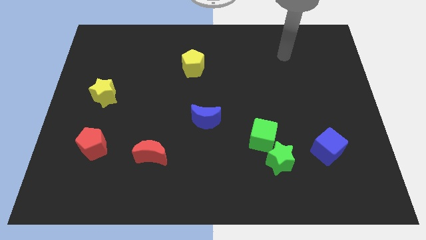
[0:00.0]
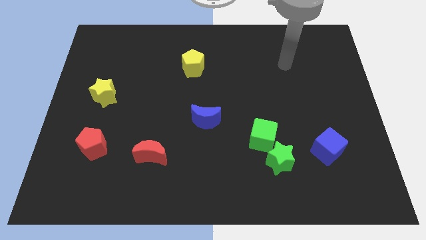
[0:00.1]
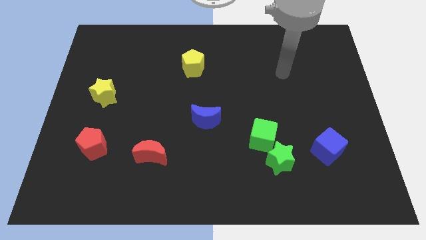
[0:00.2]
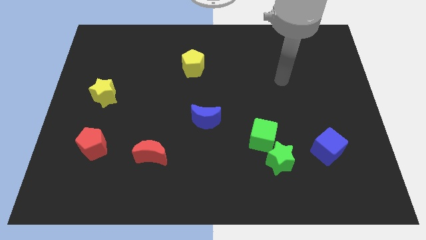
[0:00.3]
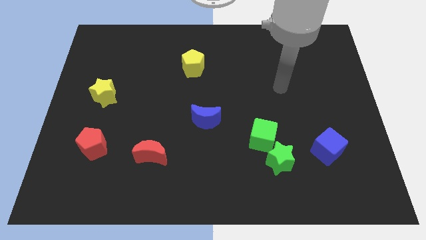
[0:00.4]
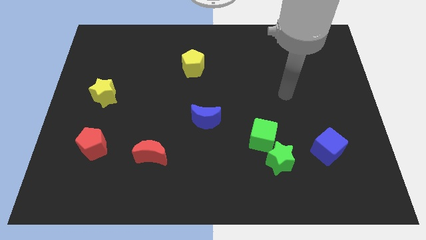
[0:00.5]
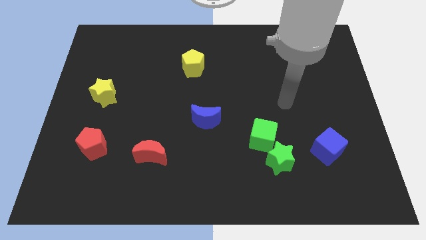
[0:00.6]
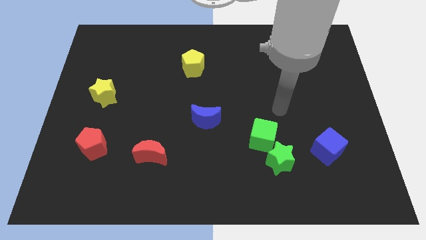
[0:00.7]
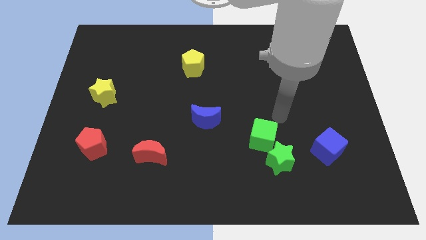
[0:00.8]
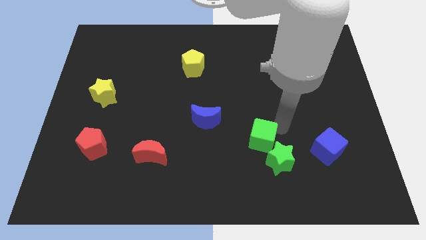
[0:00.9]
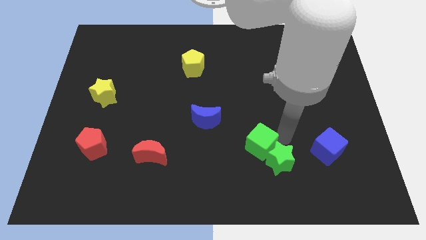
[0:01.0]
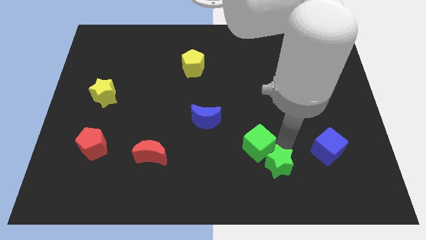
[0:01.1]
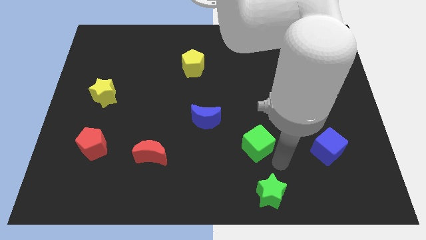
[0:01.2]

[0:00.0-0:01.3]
separate the green cube from the green star

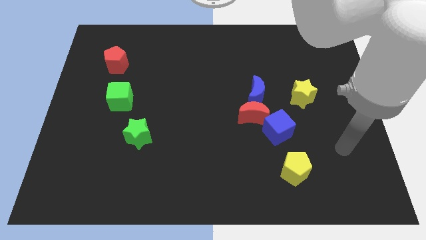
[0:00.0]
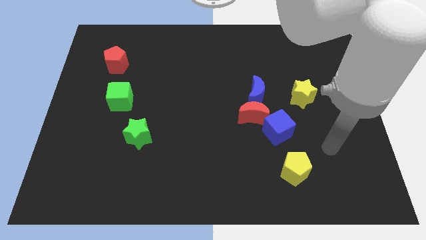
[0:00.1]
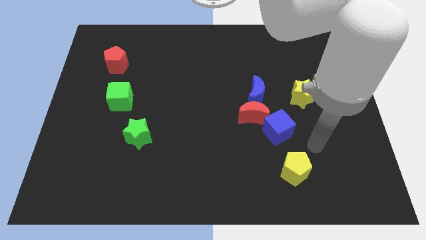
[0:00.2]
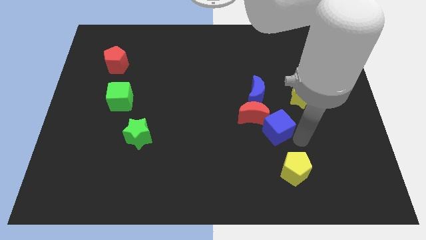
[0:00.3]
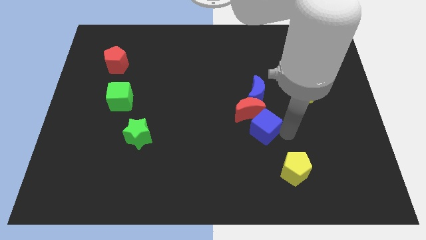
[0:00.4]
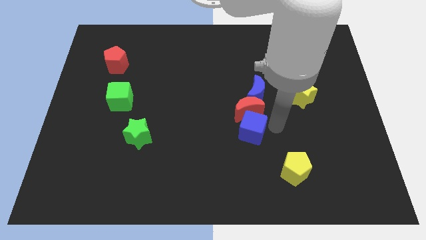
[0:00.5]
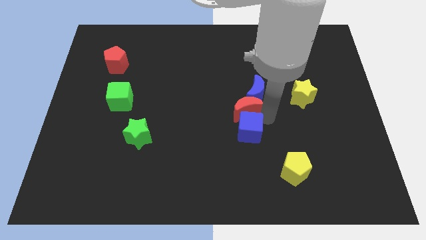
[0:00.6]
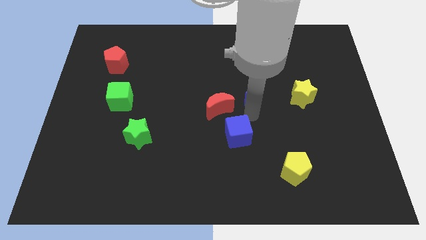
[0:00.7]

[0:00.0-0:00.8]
separate the blue moon from the red moon

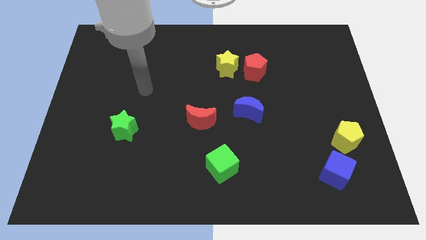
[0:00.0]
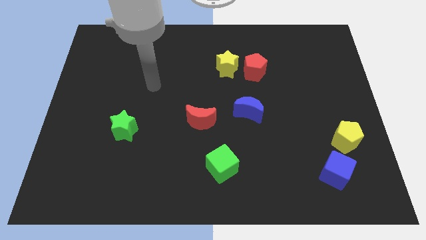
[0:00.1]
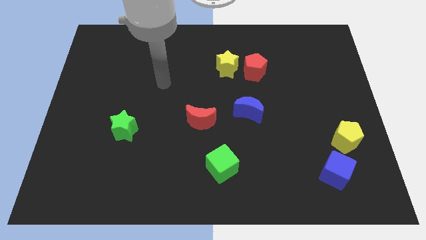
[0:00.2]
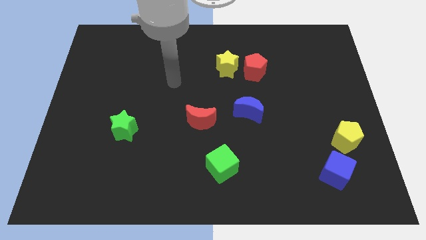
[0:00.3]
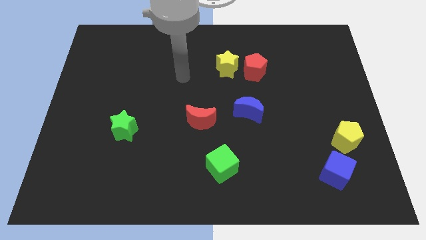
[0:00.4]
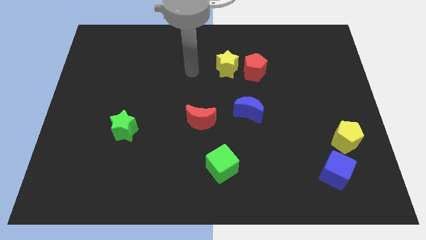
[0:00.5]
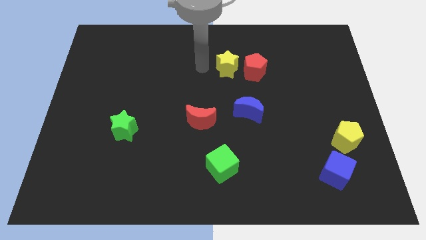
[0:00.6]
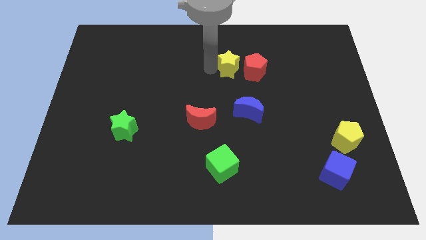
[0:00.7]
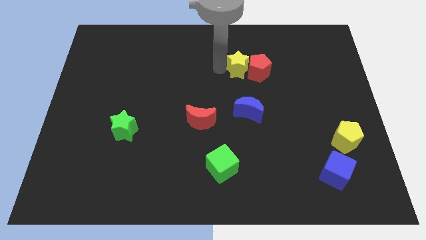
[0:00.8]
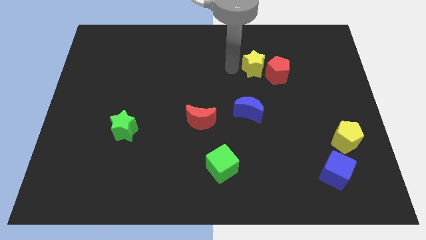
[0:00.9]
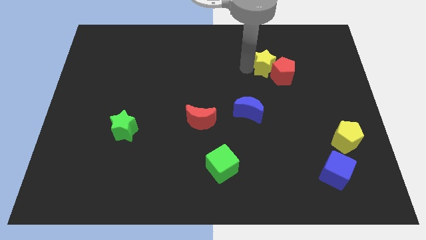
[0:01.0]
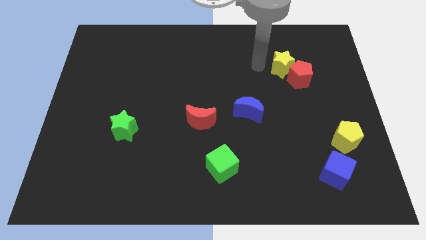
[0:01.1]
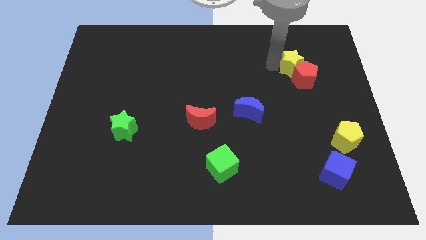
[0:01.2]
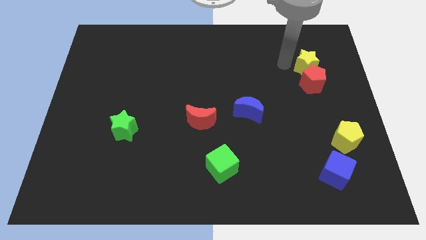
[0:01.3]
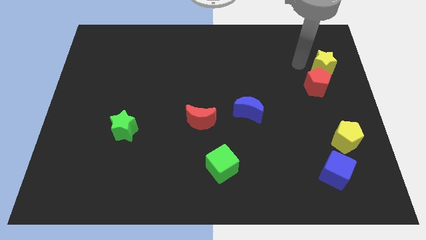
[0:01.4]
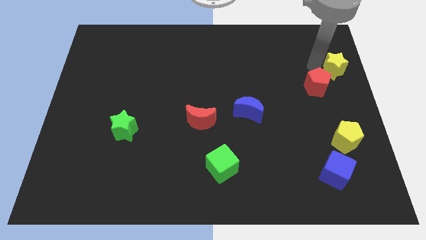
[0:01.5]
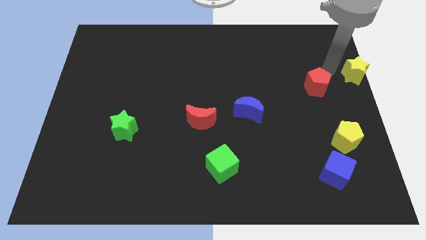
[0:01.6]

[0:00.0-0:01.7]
pull the red pentagon apart from the yellow star

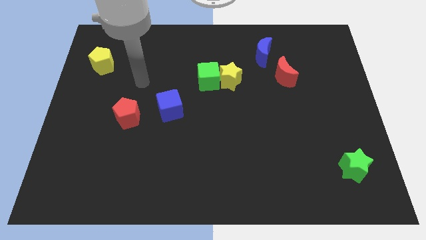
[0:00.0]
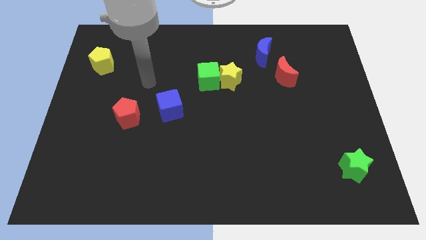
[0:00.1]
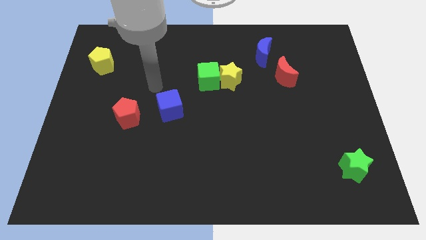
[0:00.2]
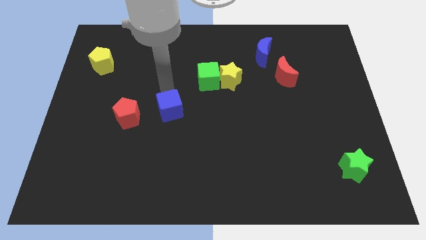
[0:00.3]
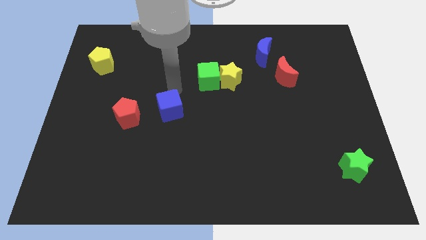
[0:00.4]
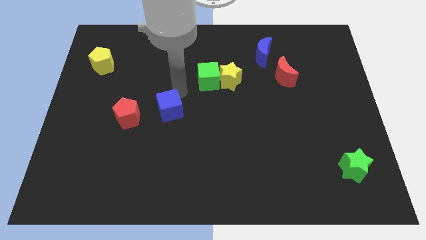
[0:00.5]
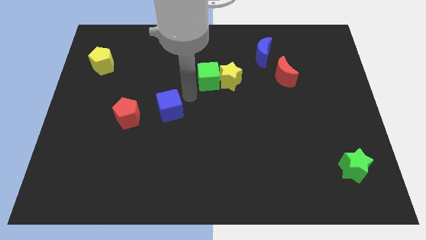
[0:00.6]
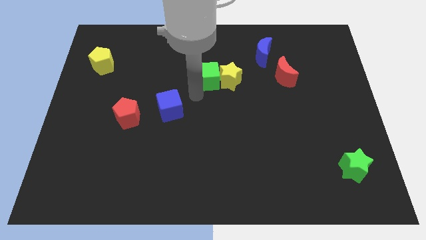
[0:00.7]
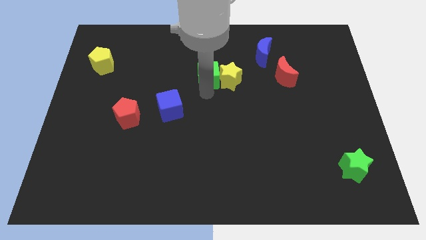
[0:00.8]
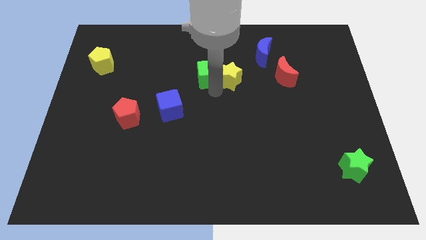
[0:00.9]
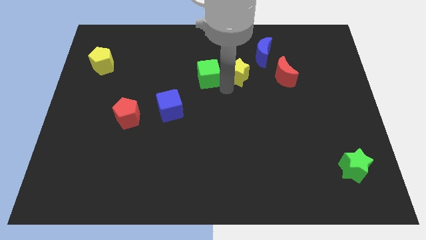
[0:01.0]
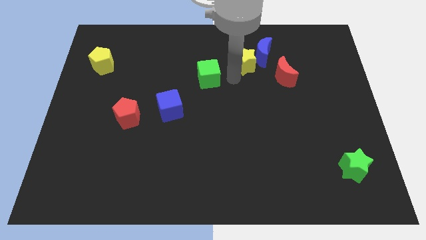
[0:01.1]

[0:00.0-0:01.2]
pull the green cube apart from the yellow star

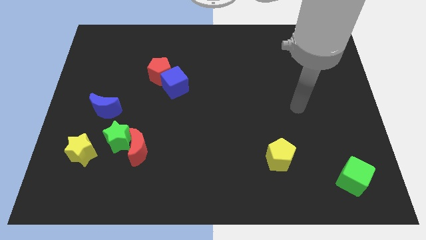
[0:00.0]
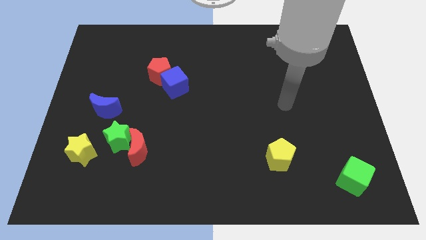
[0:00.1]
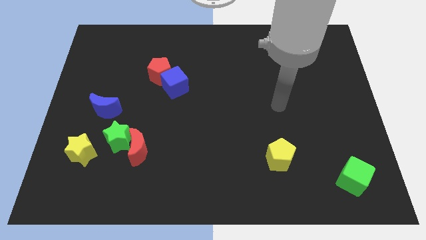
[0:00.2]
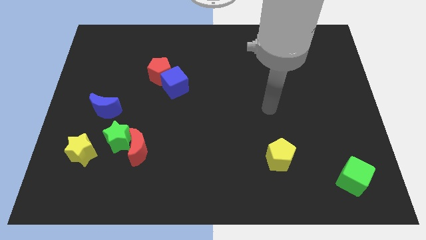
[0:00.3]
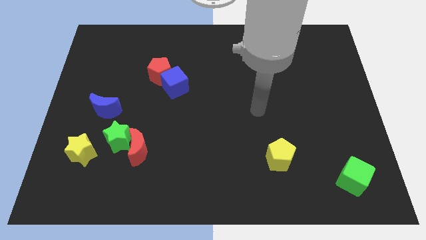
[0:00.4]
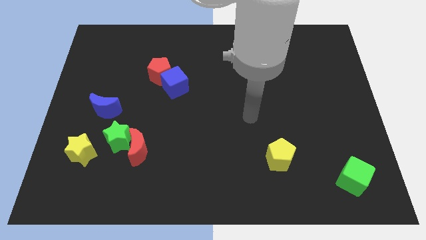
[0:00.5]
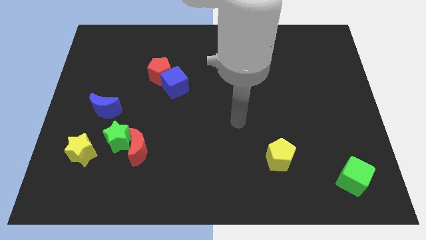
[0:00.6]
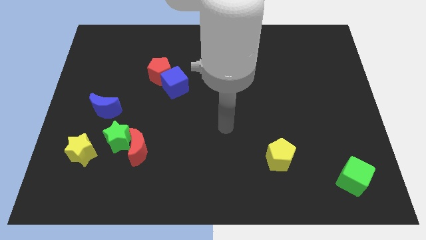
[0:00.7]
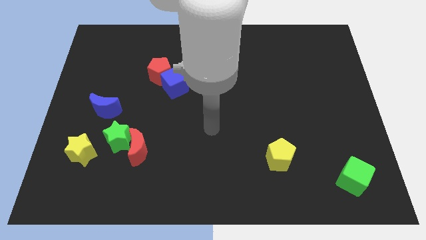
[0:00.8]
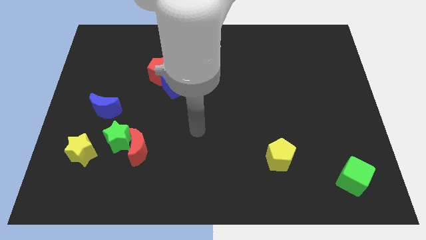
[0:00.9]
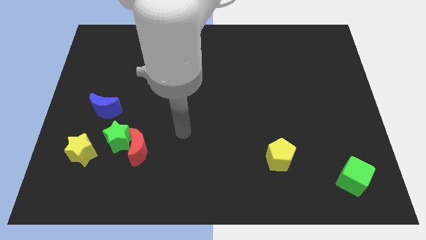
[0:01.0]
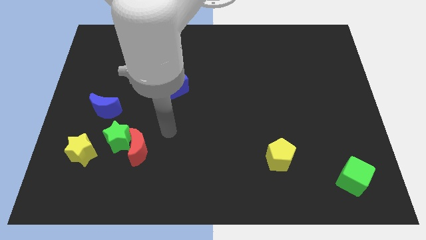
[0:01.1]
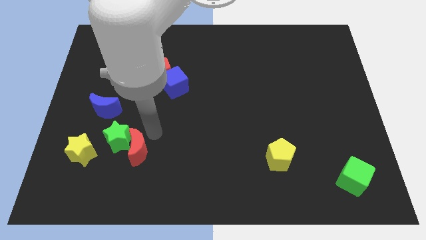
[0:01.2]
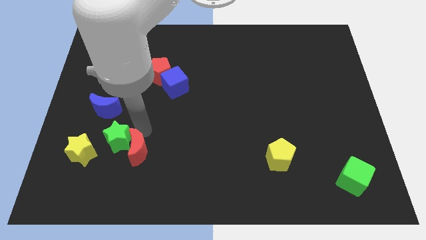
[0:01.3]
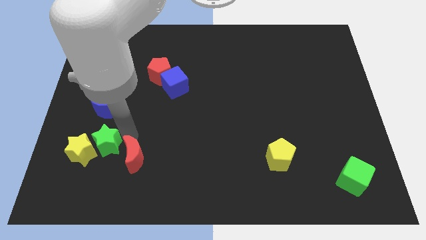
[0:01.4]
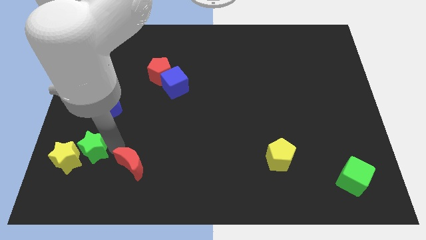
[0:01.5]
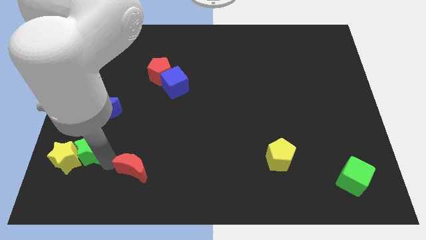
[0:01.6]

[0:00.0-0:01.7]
separate the red moon from the green star

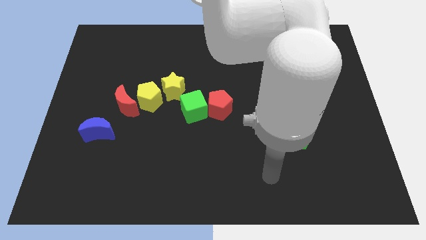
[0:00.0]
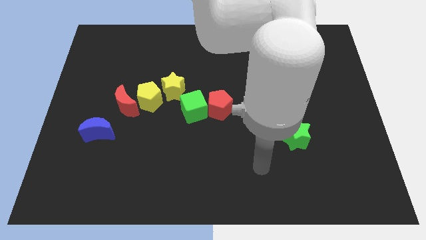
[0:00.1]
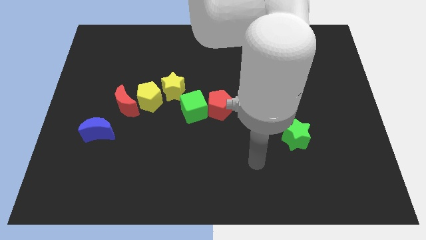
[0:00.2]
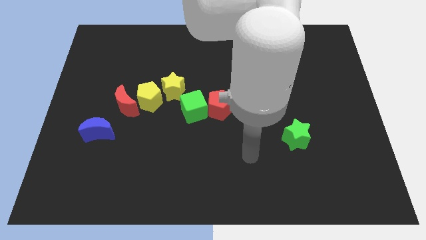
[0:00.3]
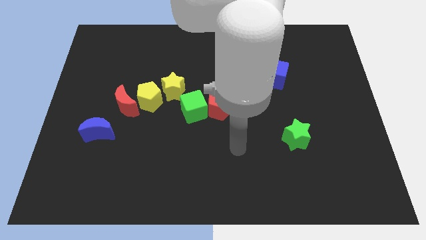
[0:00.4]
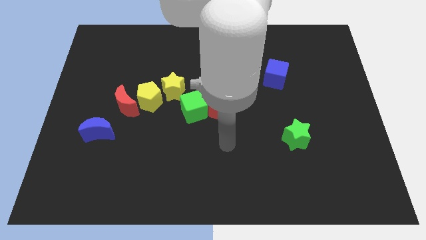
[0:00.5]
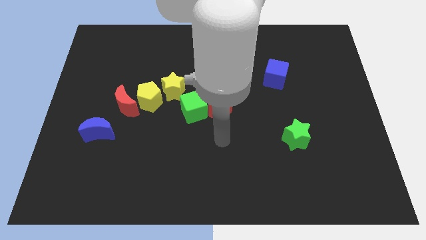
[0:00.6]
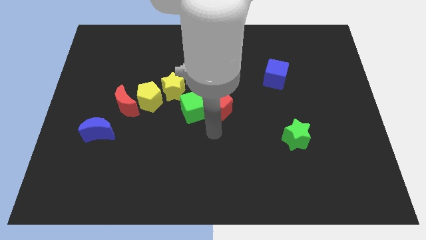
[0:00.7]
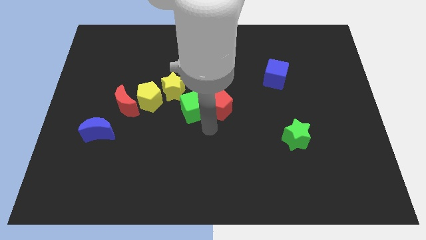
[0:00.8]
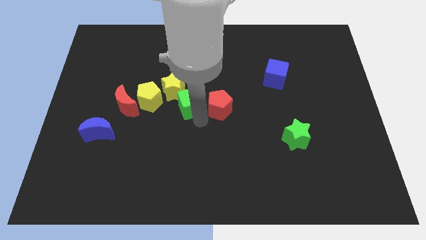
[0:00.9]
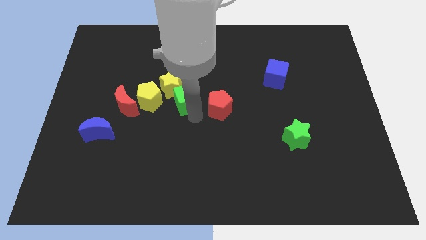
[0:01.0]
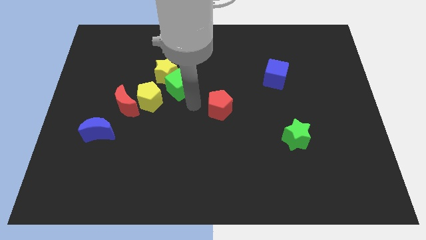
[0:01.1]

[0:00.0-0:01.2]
pull the red pentagon apart from the green cube

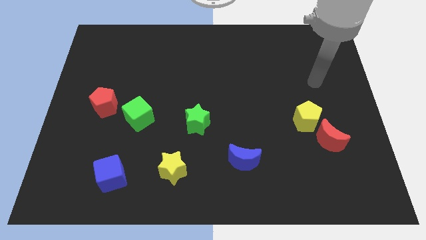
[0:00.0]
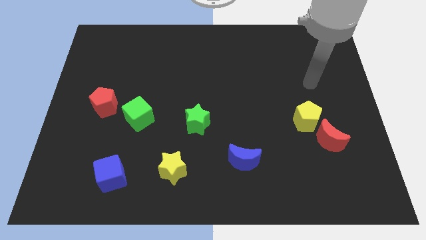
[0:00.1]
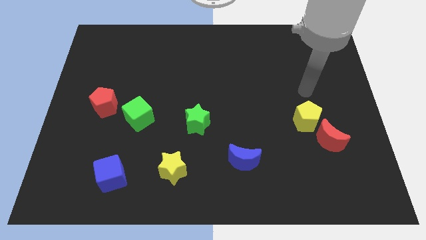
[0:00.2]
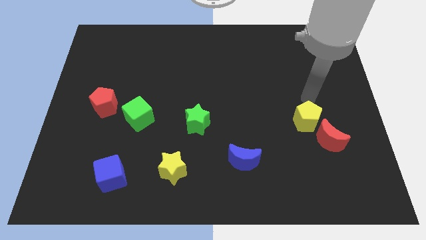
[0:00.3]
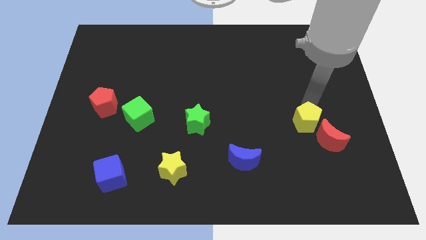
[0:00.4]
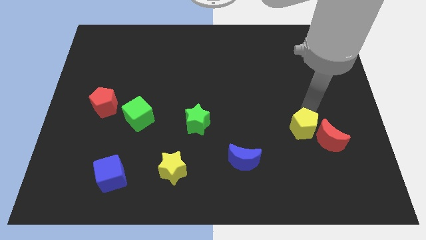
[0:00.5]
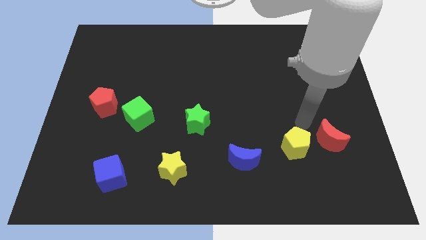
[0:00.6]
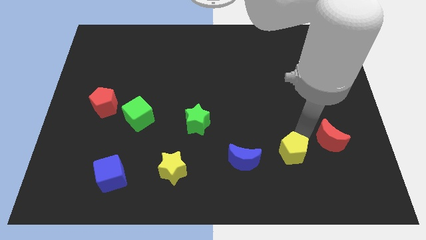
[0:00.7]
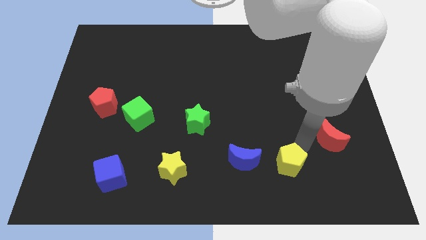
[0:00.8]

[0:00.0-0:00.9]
pull the red moon apart from the yellow pentagon

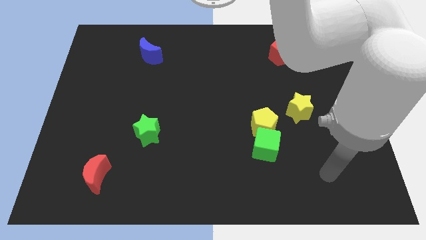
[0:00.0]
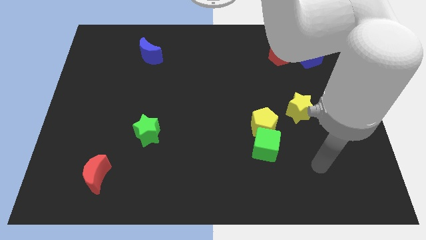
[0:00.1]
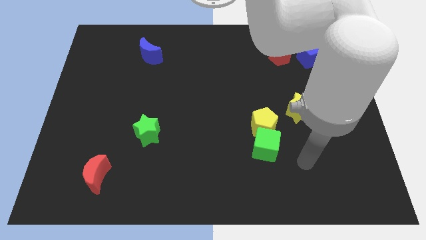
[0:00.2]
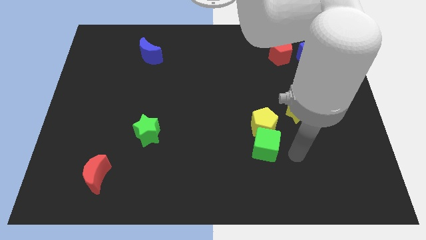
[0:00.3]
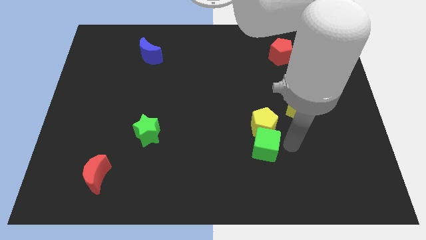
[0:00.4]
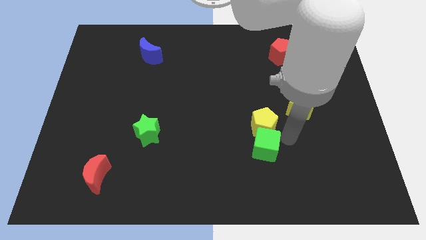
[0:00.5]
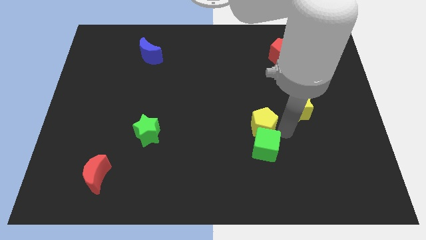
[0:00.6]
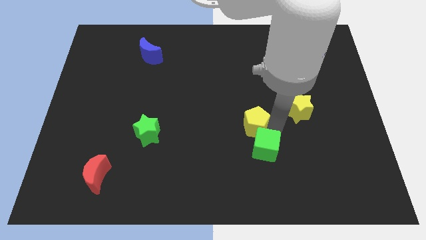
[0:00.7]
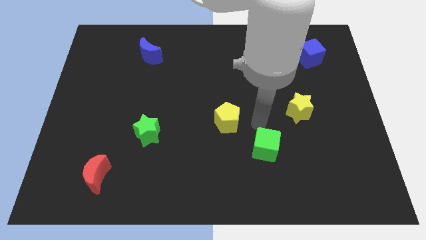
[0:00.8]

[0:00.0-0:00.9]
pull the green cube apart from the yellow pentagon
